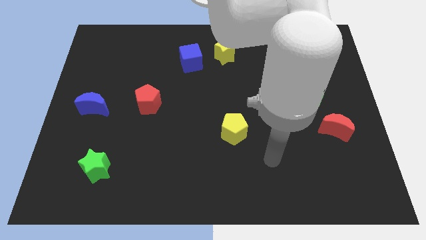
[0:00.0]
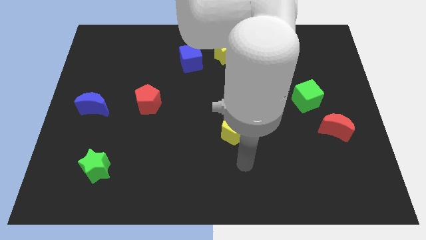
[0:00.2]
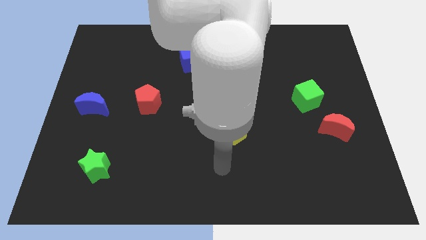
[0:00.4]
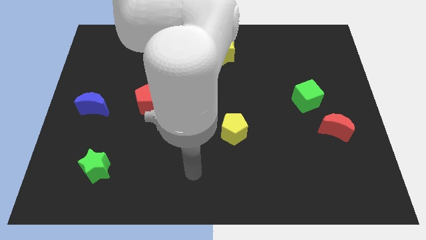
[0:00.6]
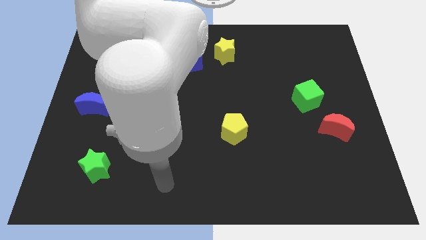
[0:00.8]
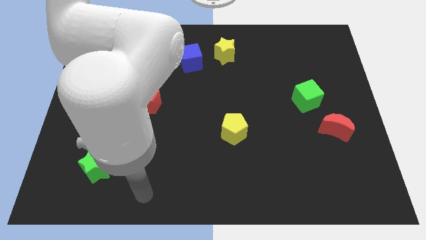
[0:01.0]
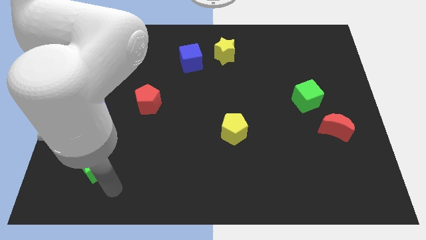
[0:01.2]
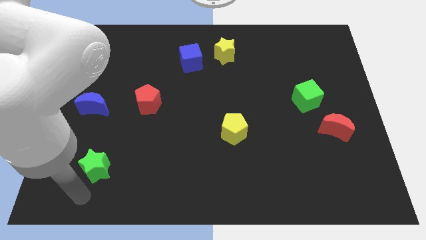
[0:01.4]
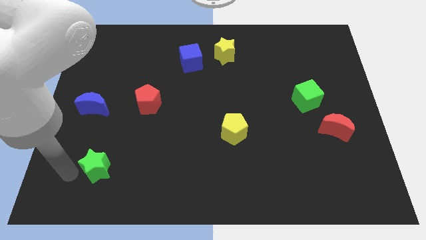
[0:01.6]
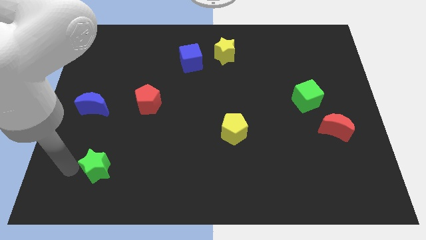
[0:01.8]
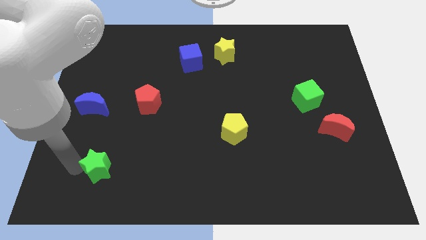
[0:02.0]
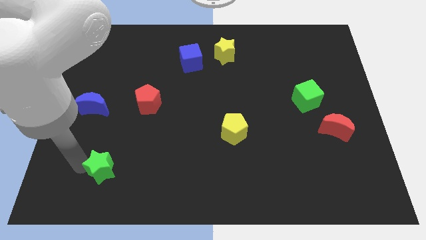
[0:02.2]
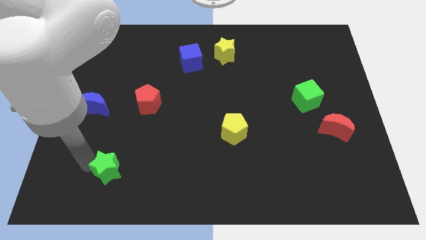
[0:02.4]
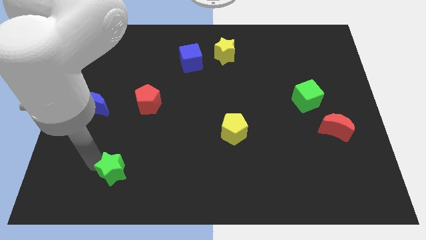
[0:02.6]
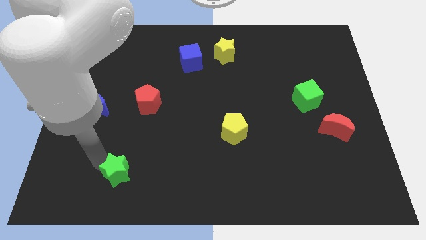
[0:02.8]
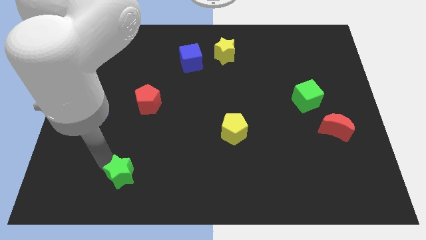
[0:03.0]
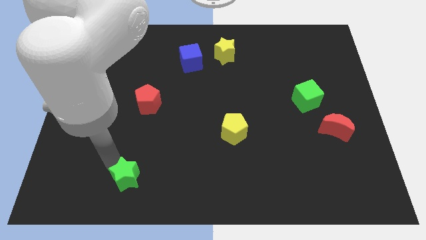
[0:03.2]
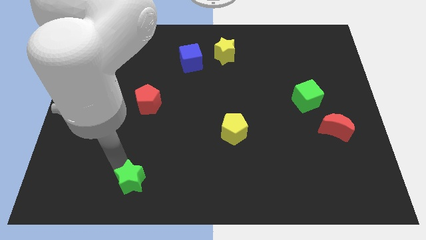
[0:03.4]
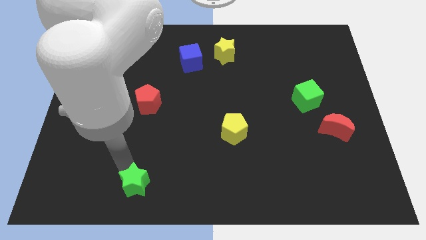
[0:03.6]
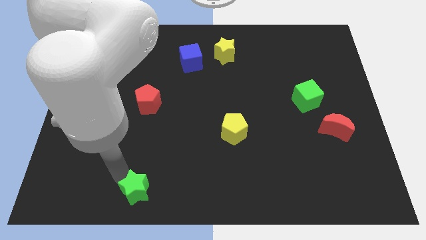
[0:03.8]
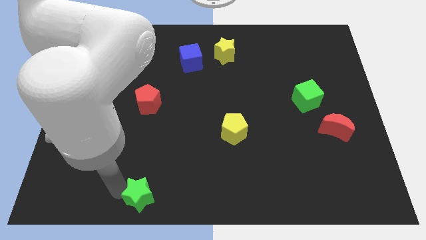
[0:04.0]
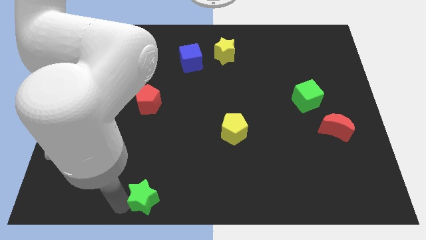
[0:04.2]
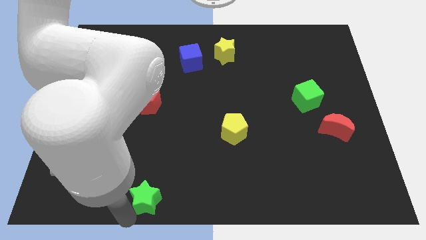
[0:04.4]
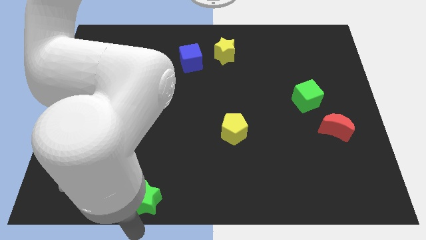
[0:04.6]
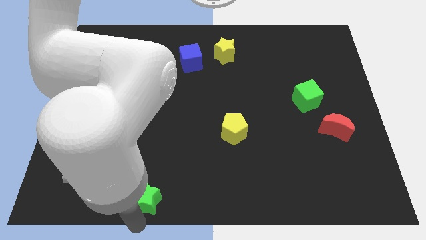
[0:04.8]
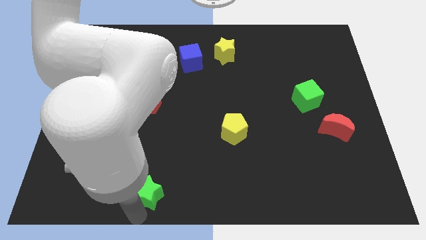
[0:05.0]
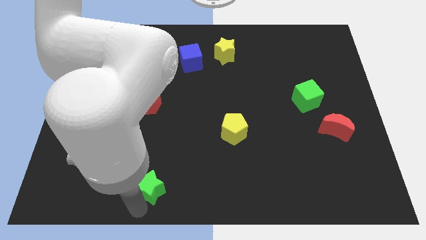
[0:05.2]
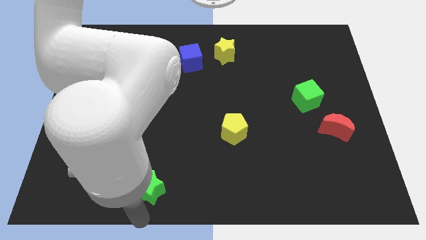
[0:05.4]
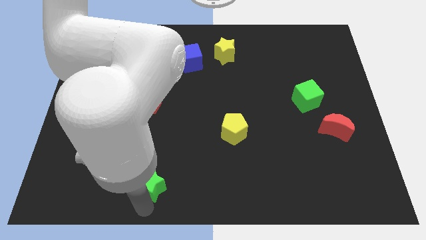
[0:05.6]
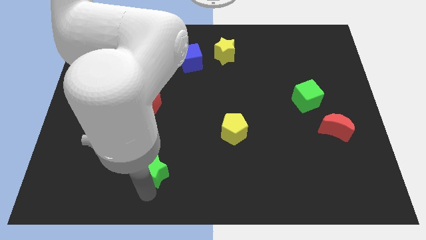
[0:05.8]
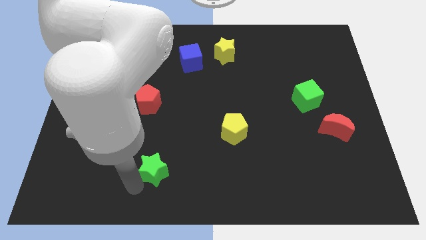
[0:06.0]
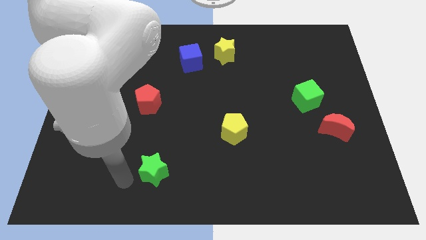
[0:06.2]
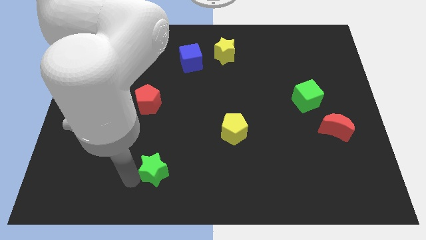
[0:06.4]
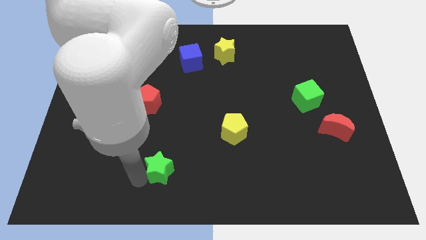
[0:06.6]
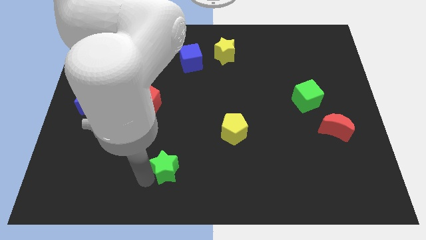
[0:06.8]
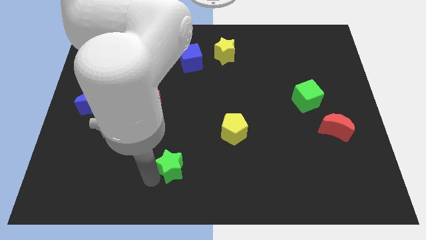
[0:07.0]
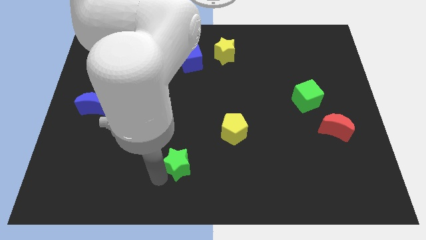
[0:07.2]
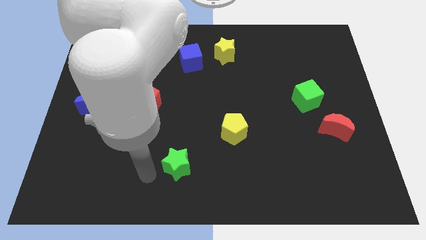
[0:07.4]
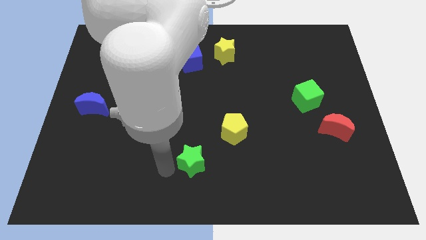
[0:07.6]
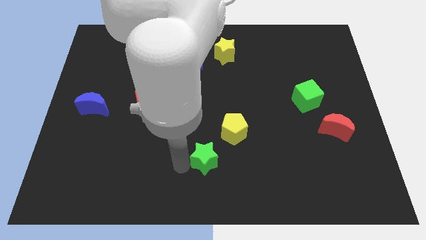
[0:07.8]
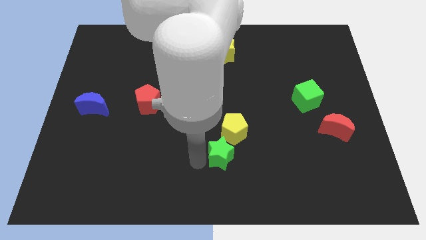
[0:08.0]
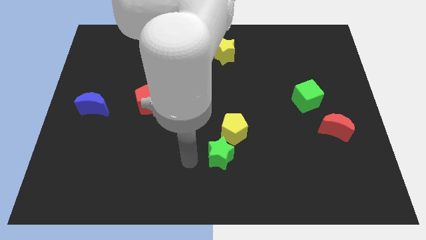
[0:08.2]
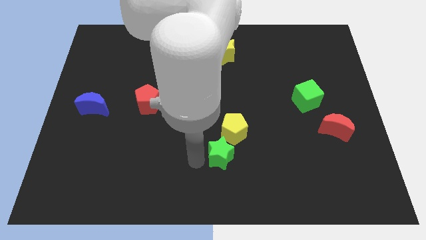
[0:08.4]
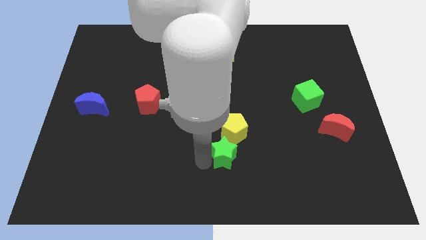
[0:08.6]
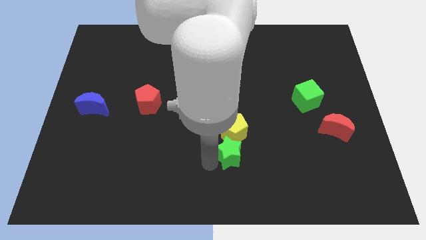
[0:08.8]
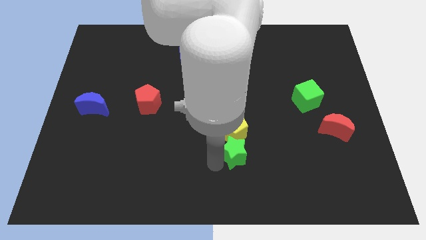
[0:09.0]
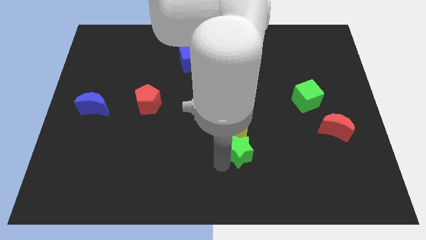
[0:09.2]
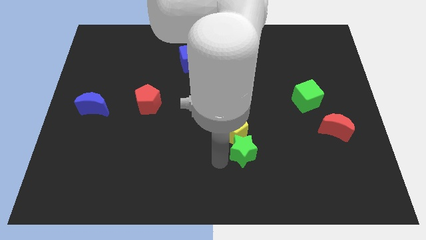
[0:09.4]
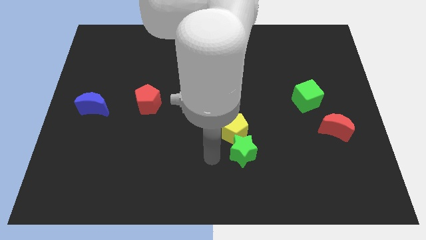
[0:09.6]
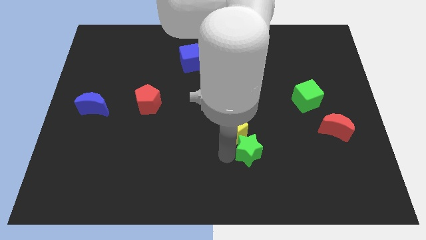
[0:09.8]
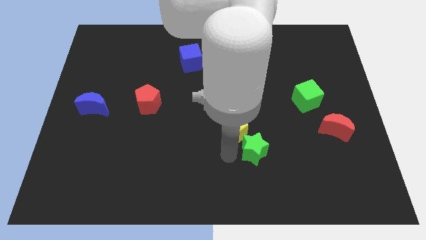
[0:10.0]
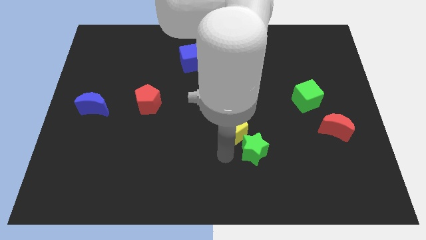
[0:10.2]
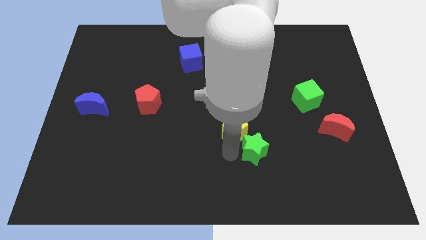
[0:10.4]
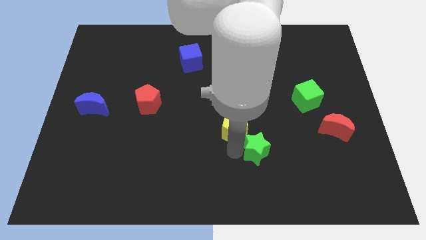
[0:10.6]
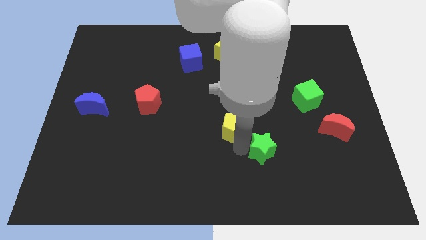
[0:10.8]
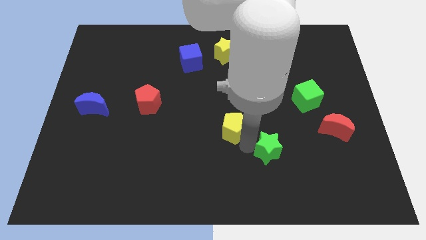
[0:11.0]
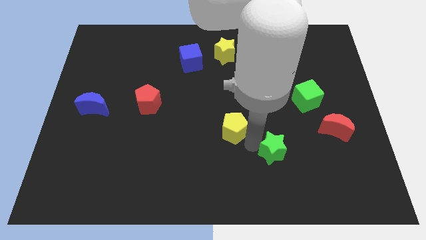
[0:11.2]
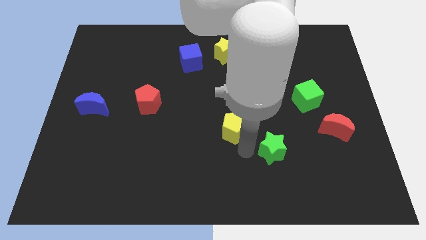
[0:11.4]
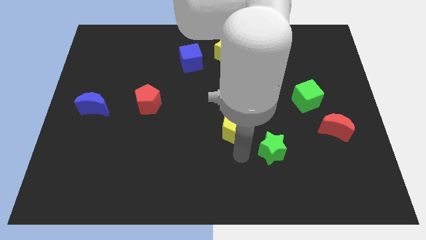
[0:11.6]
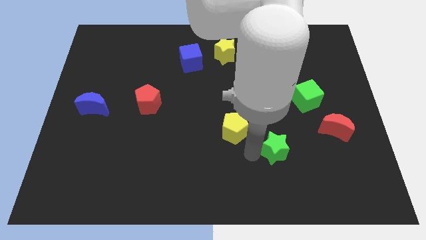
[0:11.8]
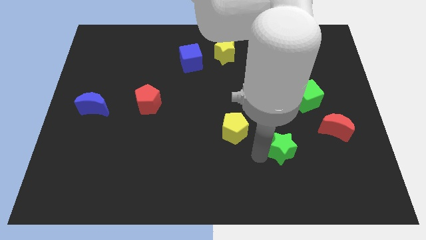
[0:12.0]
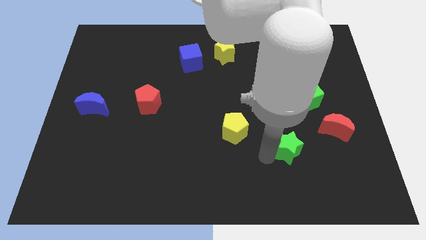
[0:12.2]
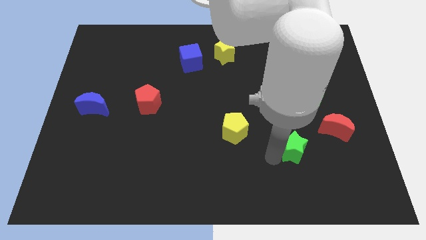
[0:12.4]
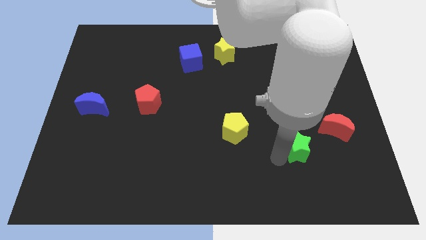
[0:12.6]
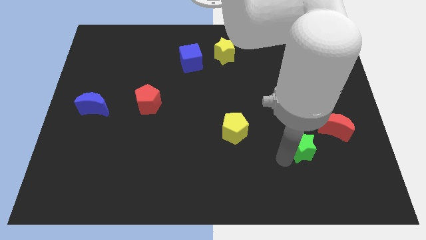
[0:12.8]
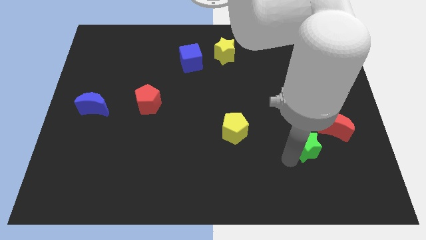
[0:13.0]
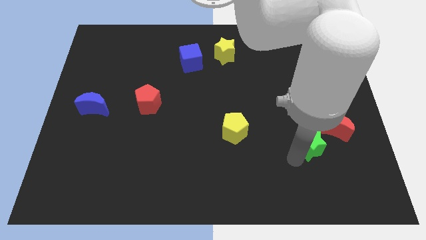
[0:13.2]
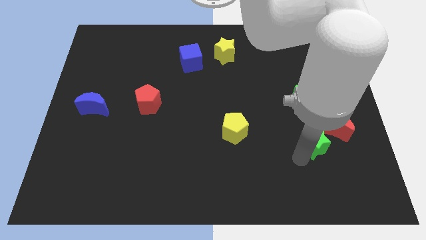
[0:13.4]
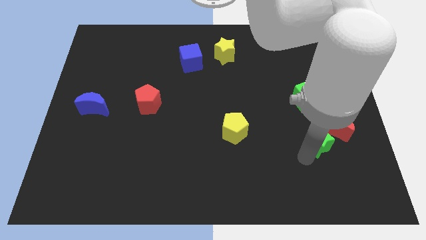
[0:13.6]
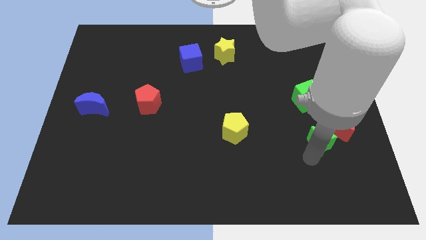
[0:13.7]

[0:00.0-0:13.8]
move the green star next to the red moon
